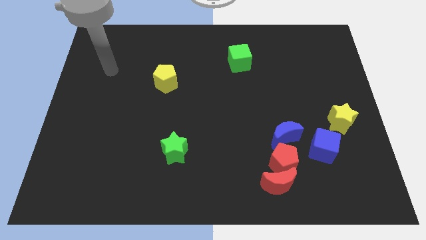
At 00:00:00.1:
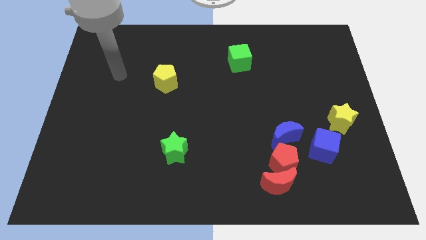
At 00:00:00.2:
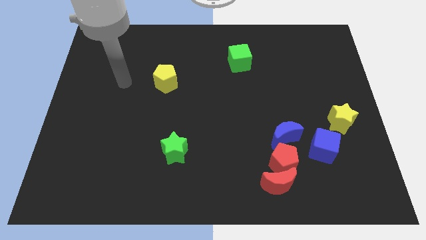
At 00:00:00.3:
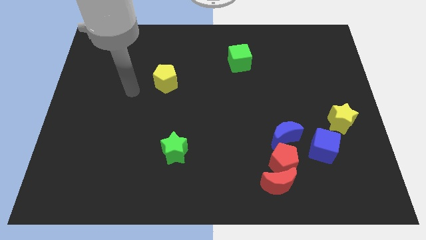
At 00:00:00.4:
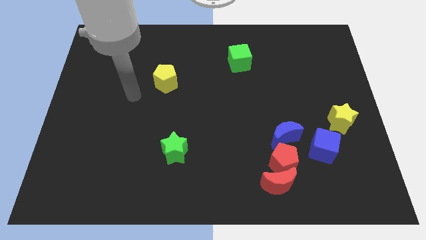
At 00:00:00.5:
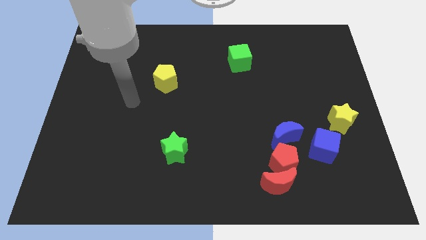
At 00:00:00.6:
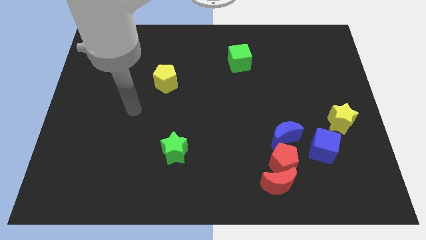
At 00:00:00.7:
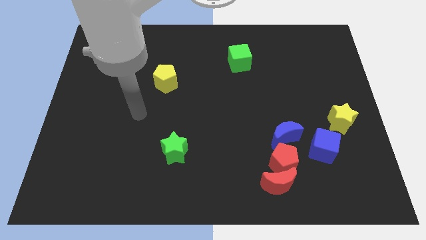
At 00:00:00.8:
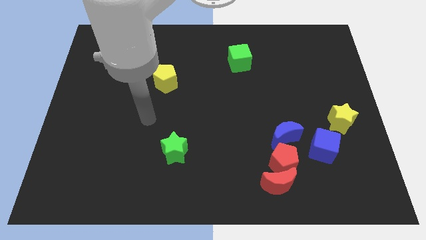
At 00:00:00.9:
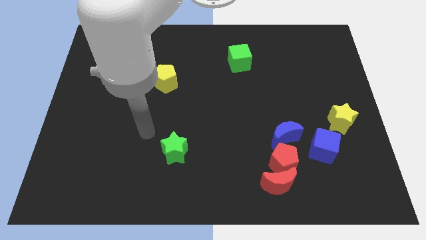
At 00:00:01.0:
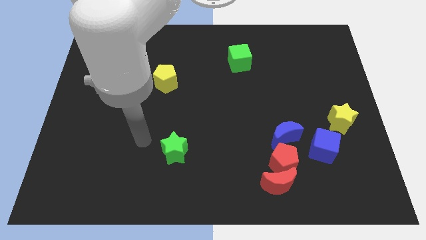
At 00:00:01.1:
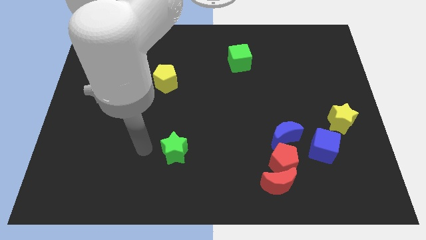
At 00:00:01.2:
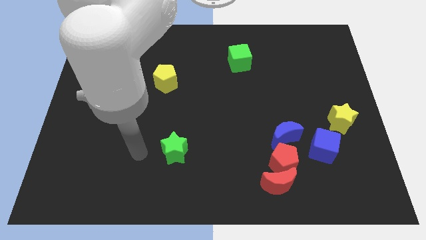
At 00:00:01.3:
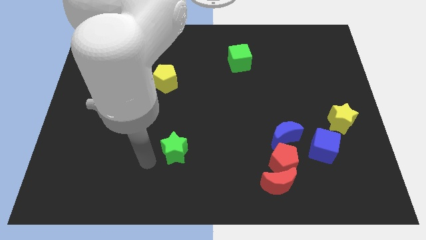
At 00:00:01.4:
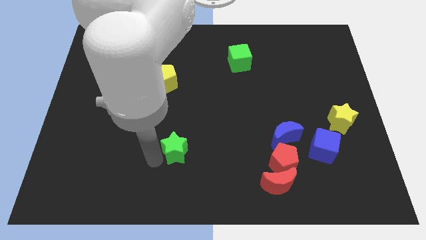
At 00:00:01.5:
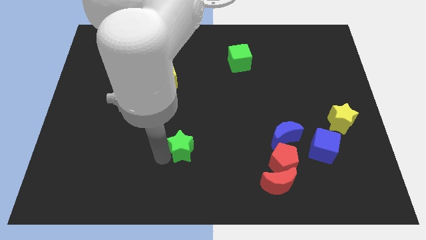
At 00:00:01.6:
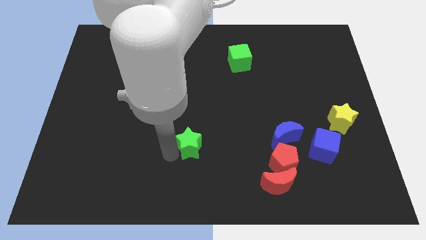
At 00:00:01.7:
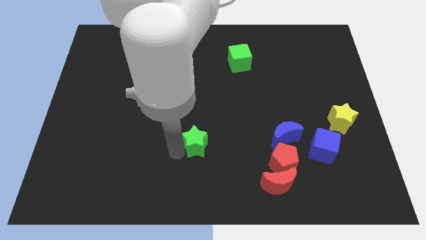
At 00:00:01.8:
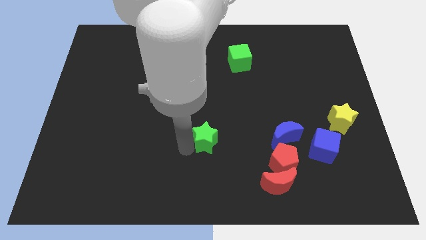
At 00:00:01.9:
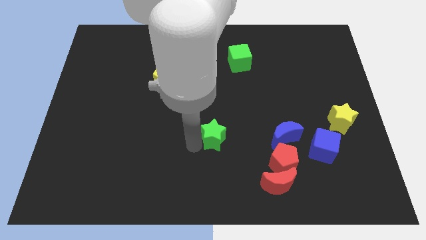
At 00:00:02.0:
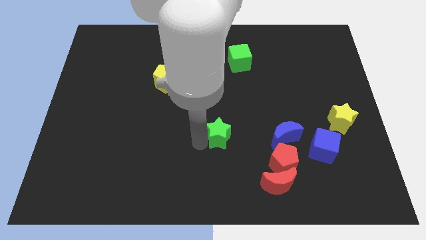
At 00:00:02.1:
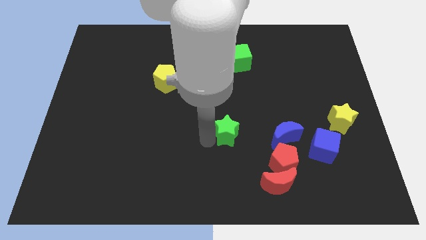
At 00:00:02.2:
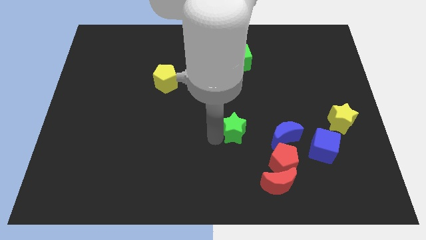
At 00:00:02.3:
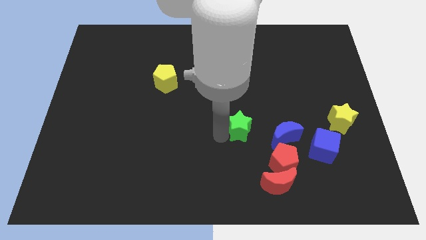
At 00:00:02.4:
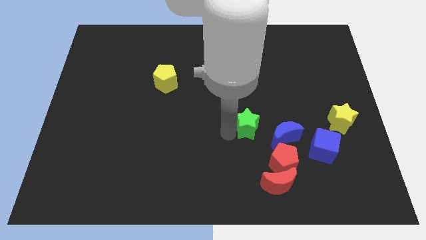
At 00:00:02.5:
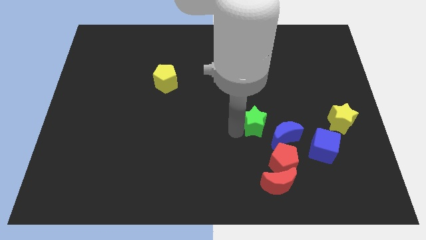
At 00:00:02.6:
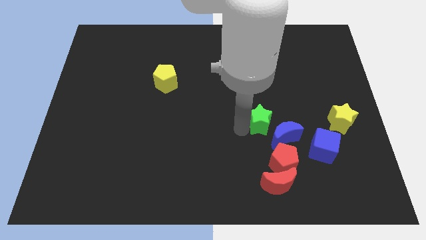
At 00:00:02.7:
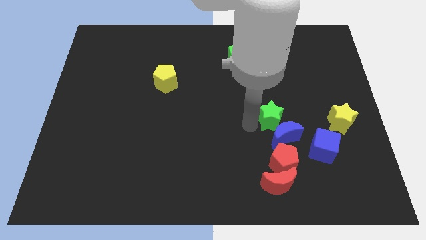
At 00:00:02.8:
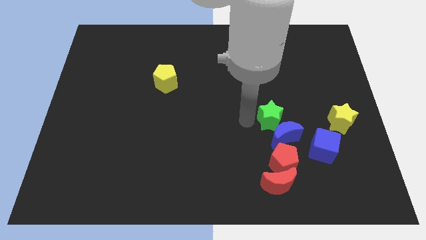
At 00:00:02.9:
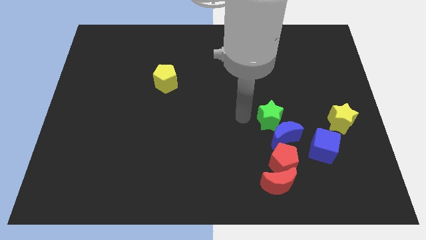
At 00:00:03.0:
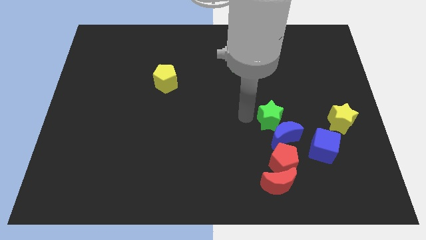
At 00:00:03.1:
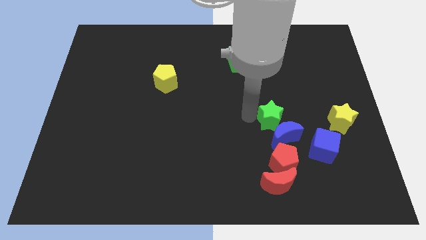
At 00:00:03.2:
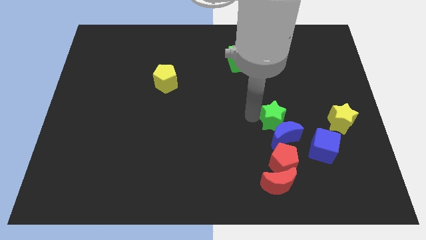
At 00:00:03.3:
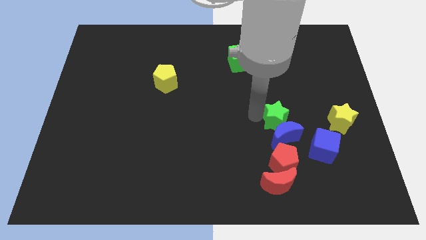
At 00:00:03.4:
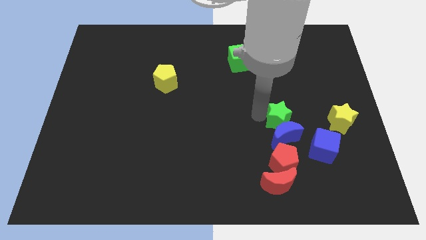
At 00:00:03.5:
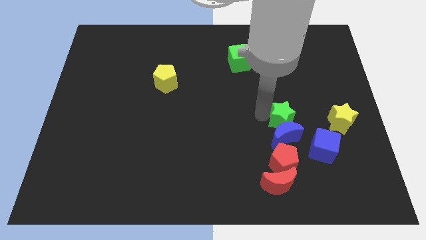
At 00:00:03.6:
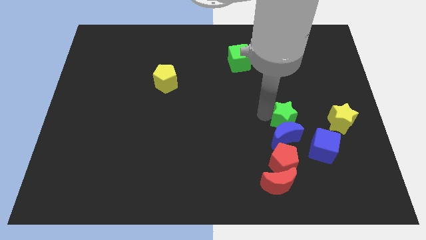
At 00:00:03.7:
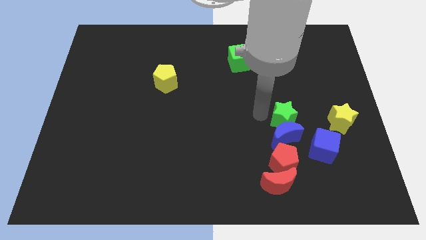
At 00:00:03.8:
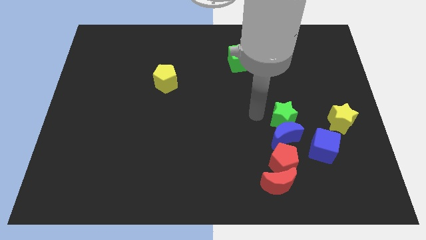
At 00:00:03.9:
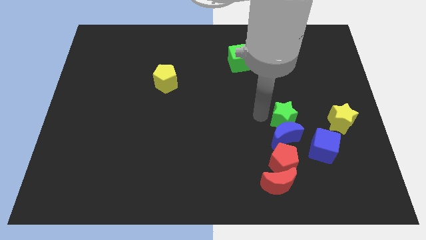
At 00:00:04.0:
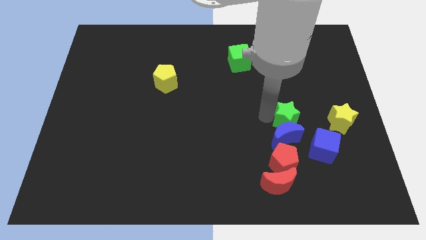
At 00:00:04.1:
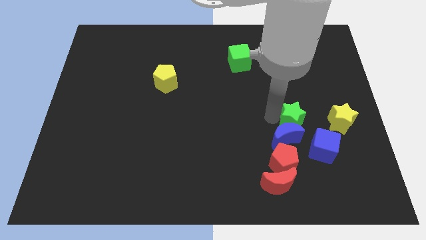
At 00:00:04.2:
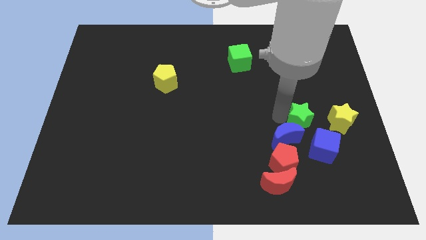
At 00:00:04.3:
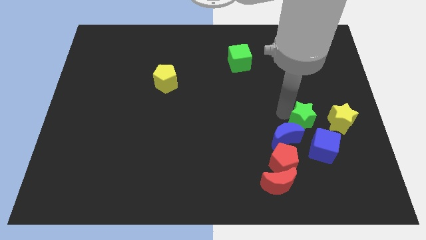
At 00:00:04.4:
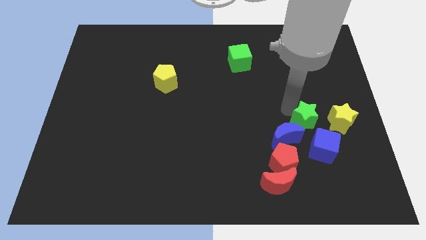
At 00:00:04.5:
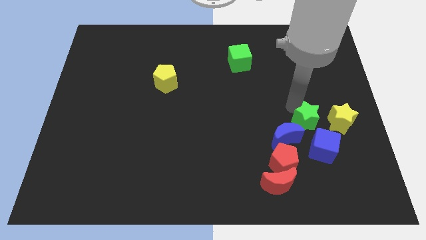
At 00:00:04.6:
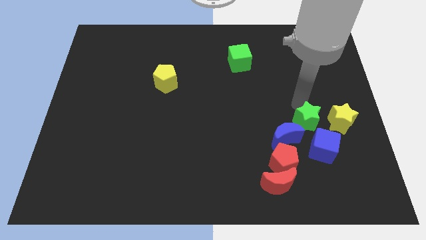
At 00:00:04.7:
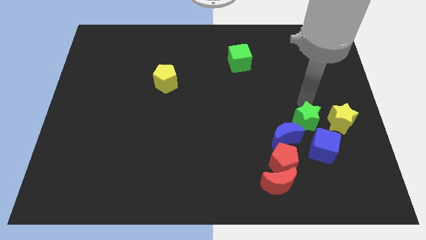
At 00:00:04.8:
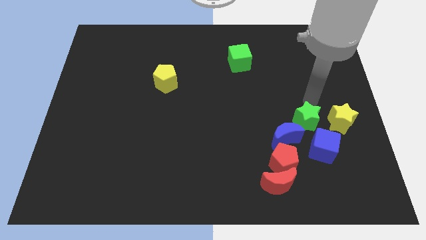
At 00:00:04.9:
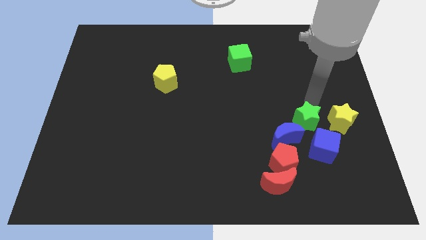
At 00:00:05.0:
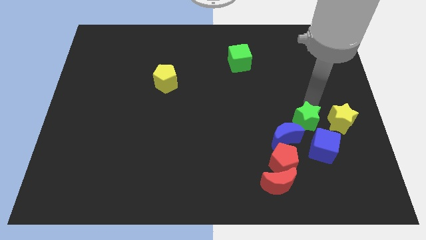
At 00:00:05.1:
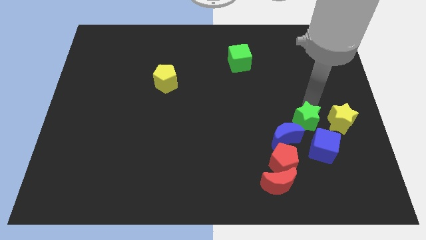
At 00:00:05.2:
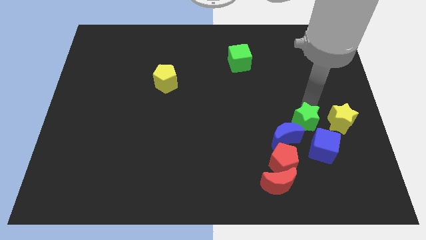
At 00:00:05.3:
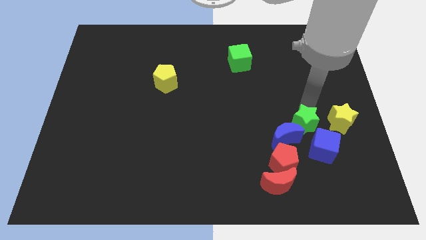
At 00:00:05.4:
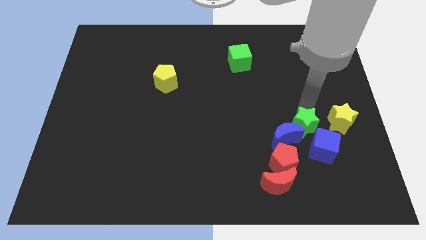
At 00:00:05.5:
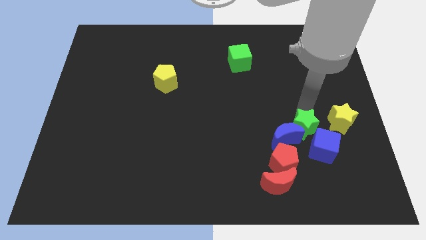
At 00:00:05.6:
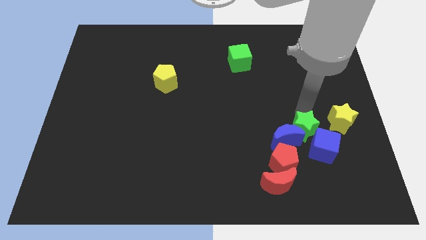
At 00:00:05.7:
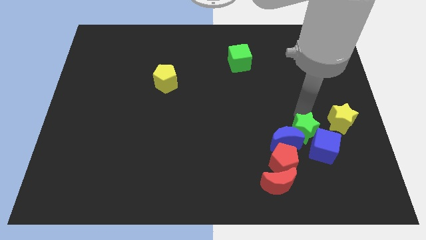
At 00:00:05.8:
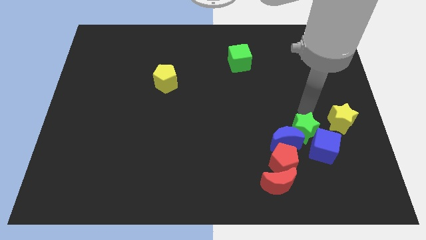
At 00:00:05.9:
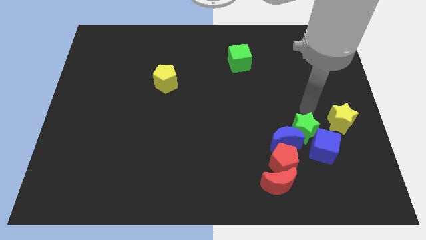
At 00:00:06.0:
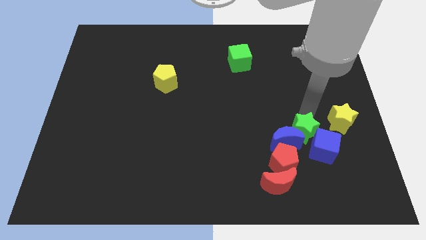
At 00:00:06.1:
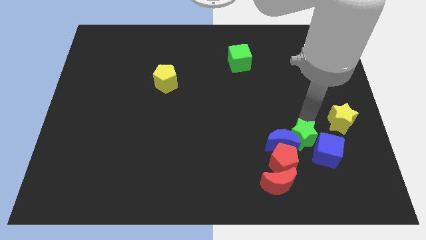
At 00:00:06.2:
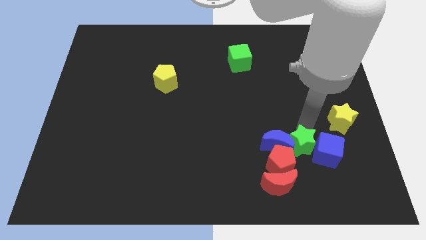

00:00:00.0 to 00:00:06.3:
put the green star diagonally up and to the right of the red moon
